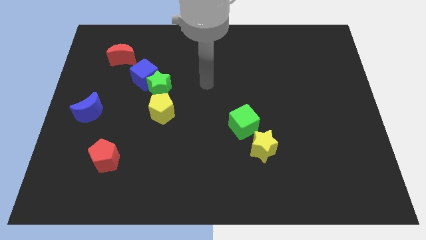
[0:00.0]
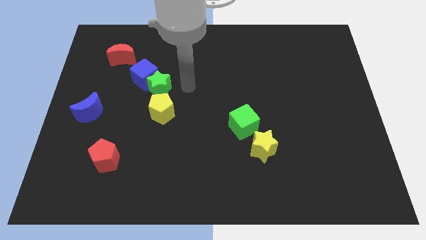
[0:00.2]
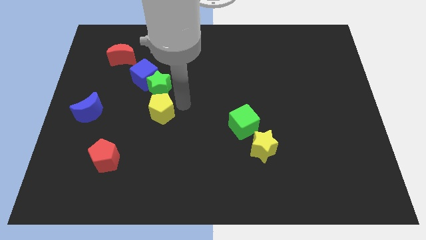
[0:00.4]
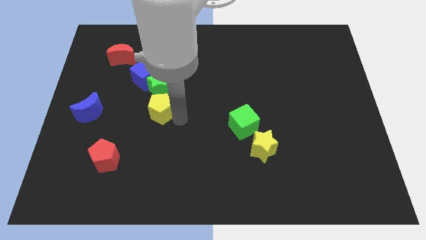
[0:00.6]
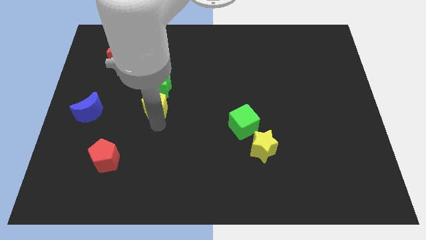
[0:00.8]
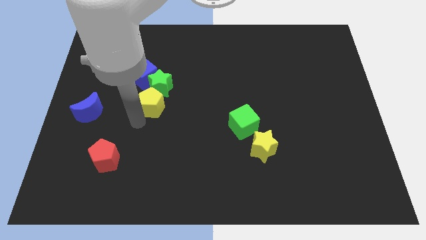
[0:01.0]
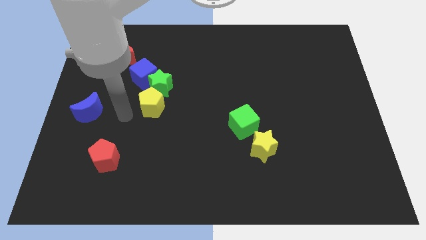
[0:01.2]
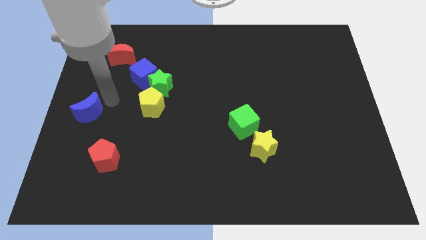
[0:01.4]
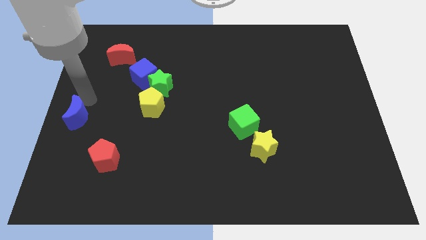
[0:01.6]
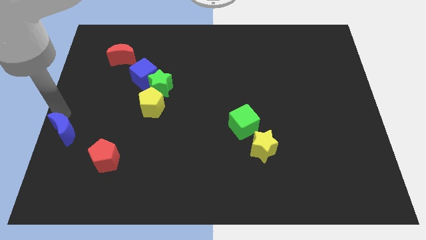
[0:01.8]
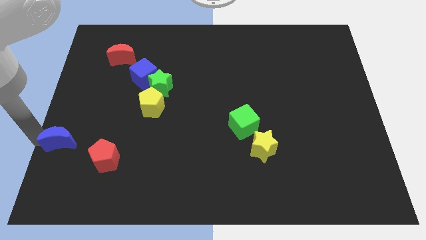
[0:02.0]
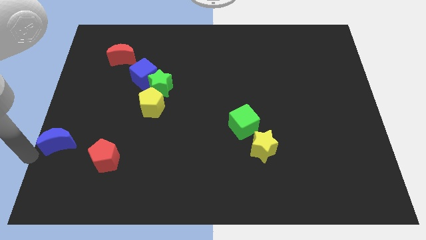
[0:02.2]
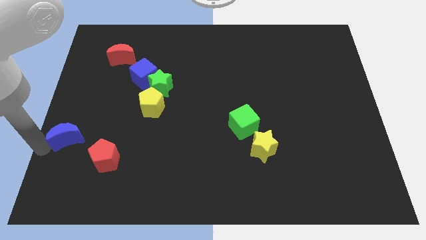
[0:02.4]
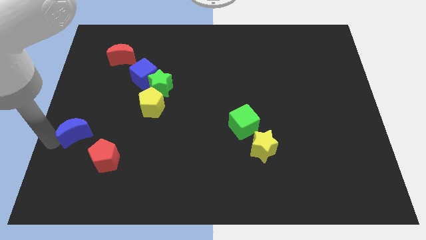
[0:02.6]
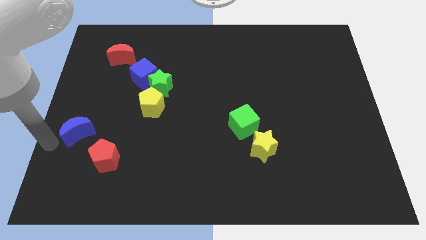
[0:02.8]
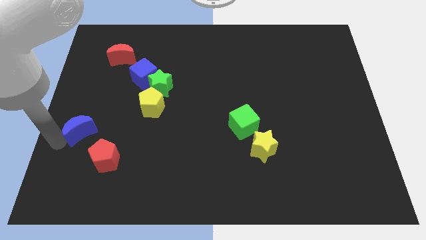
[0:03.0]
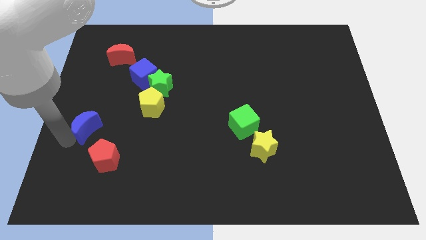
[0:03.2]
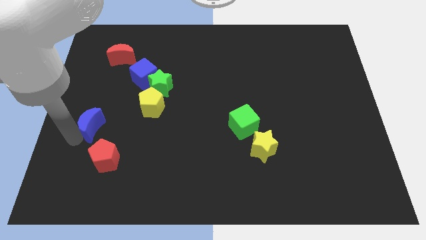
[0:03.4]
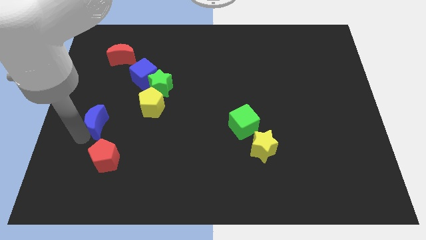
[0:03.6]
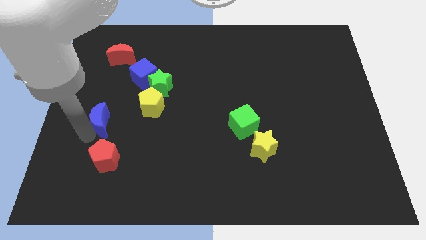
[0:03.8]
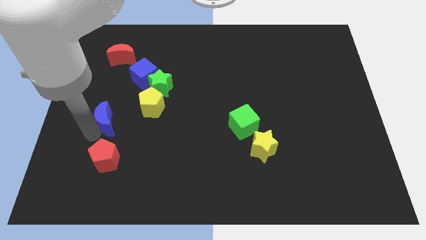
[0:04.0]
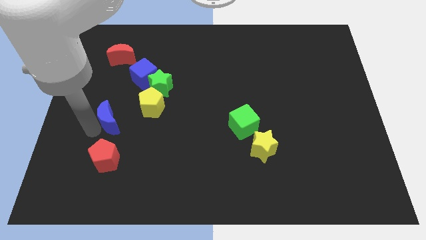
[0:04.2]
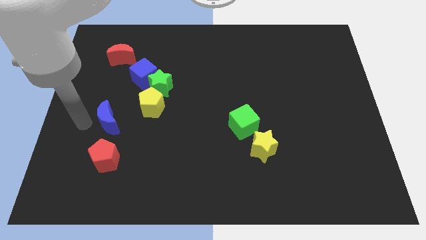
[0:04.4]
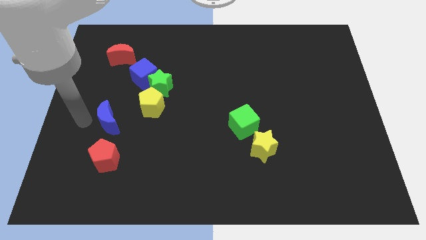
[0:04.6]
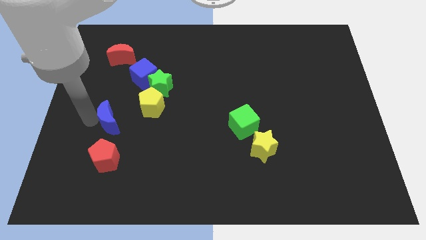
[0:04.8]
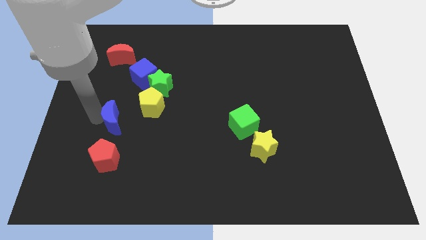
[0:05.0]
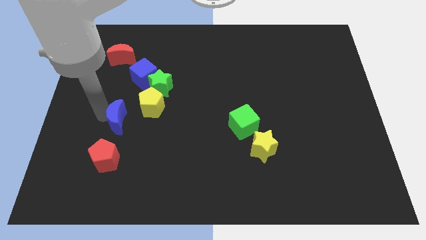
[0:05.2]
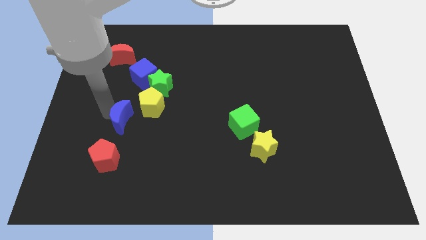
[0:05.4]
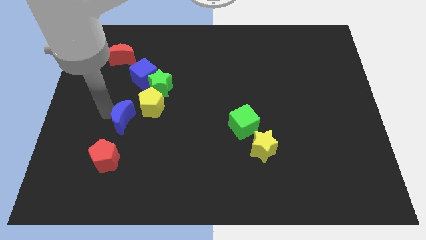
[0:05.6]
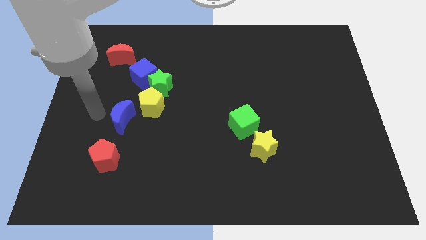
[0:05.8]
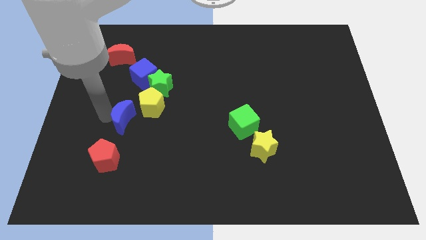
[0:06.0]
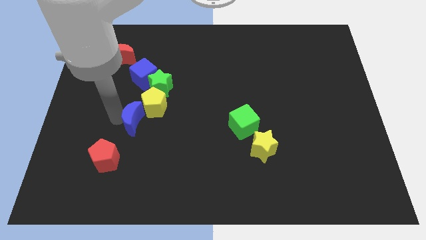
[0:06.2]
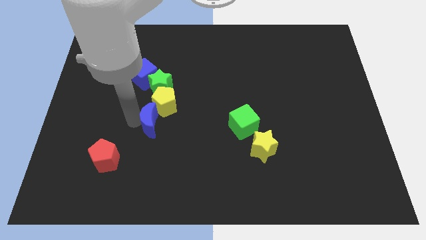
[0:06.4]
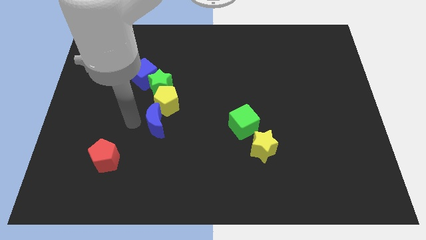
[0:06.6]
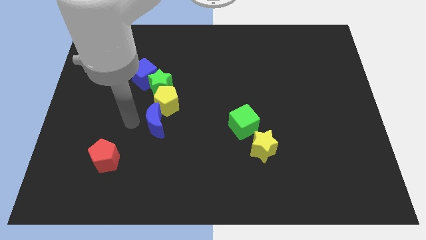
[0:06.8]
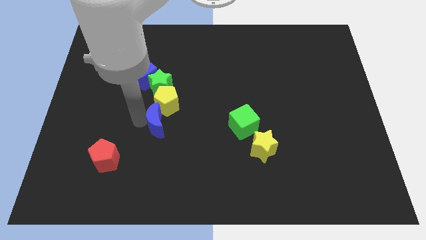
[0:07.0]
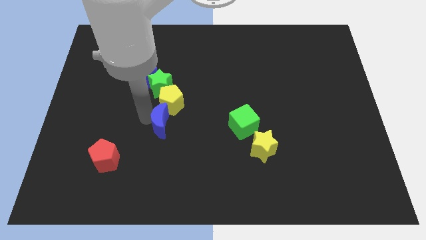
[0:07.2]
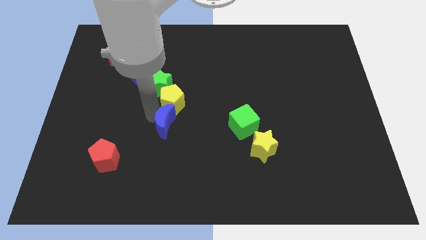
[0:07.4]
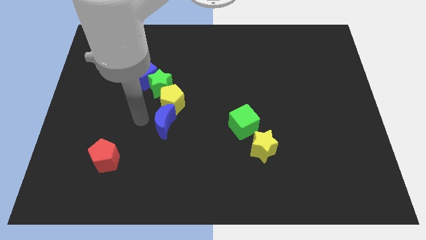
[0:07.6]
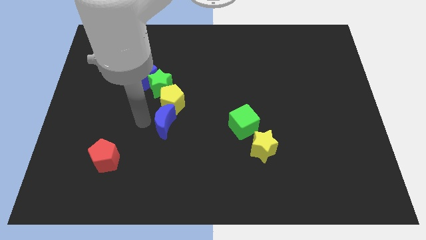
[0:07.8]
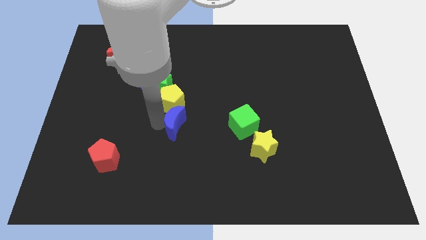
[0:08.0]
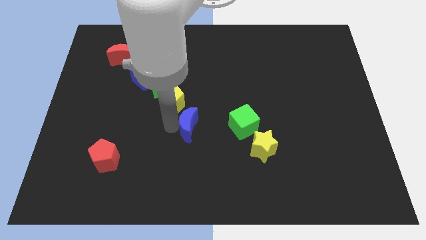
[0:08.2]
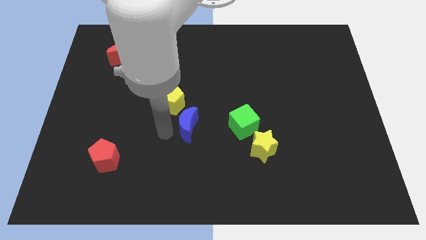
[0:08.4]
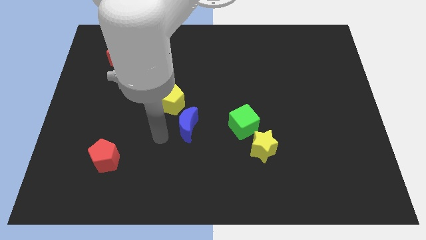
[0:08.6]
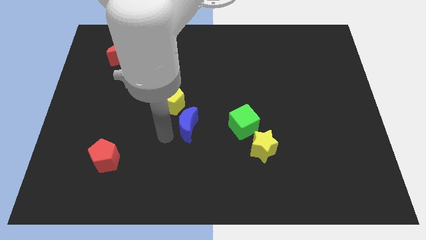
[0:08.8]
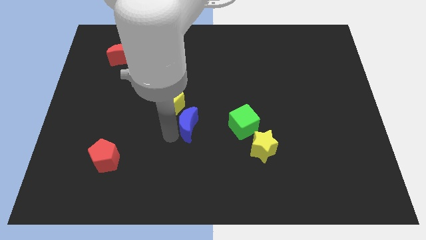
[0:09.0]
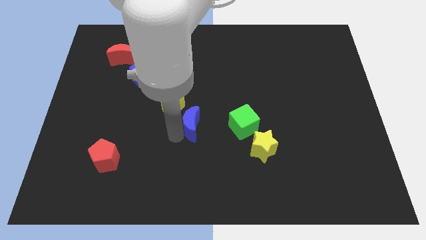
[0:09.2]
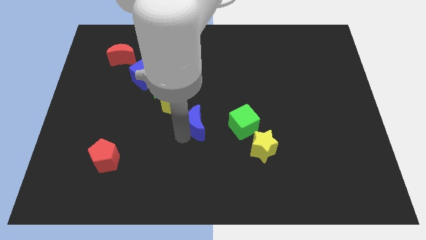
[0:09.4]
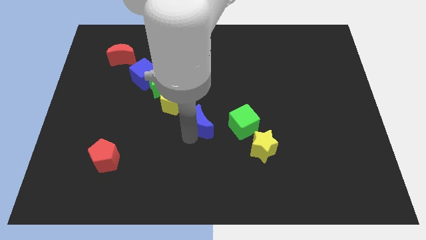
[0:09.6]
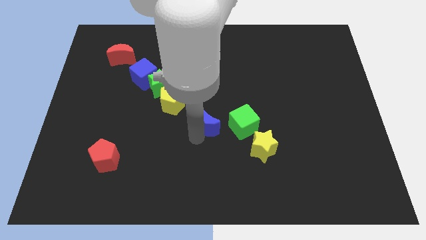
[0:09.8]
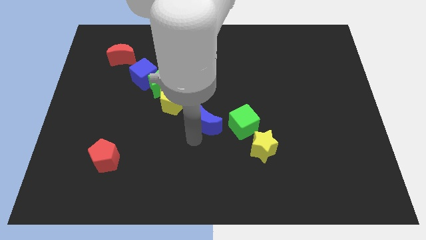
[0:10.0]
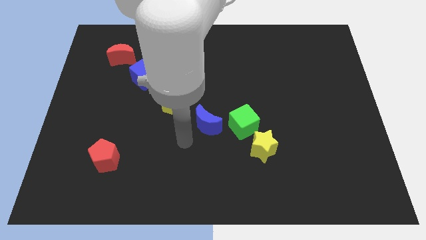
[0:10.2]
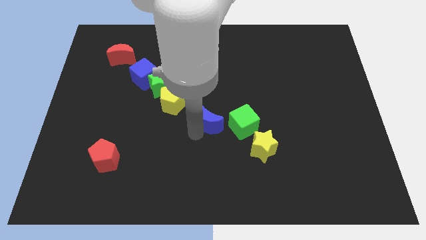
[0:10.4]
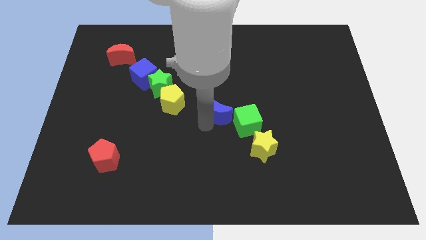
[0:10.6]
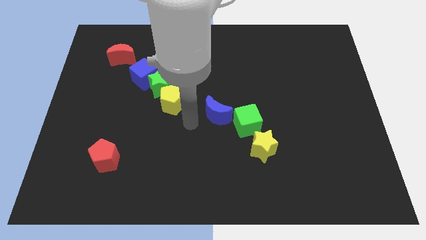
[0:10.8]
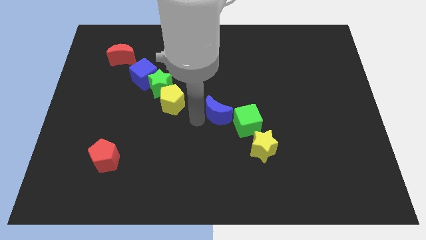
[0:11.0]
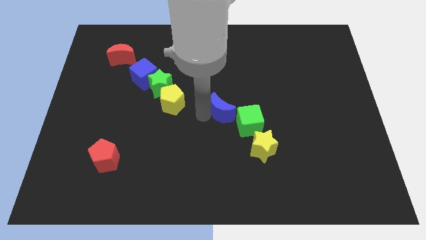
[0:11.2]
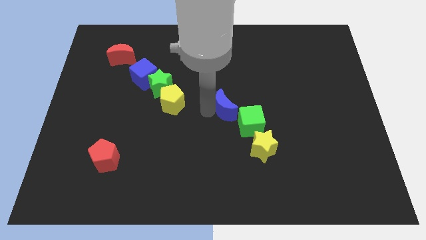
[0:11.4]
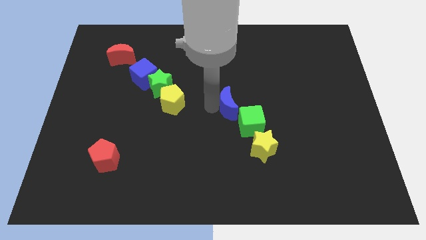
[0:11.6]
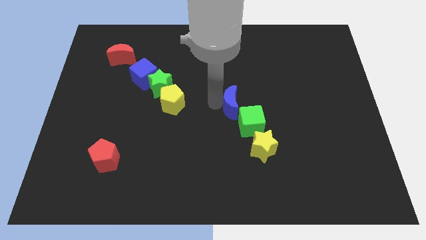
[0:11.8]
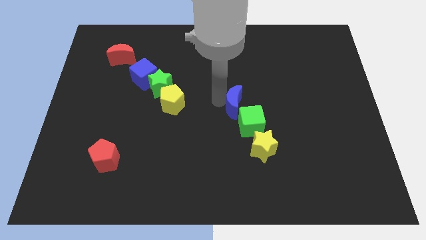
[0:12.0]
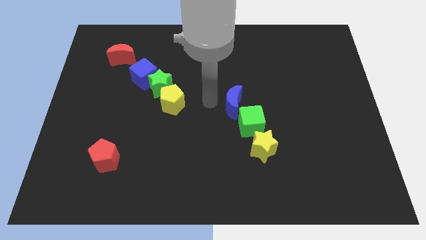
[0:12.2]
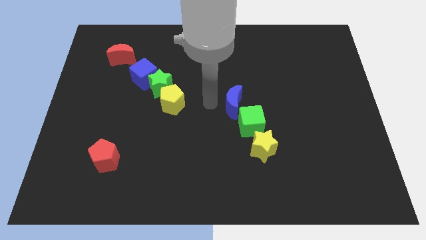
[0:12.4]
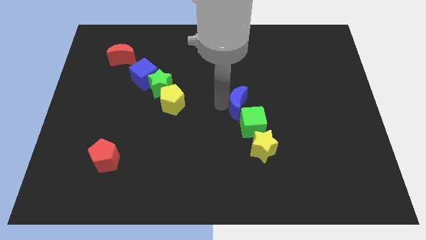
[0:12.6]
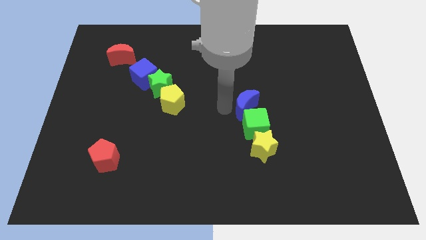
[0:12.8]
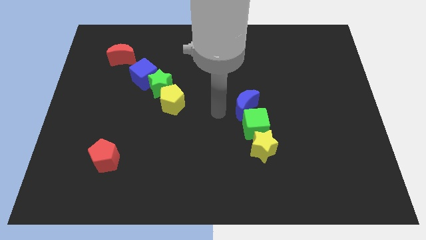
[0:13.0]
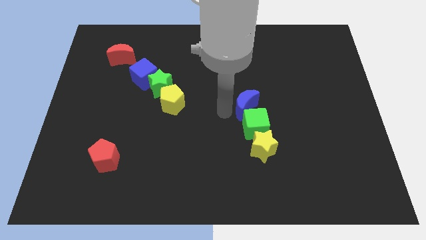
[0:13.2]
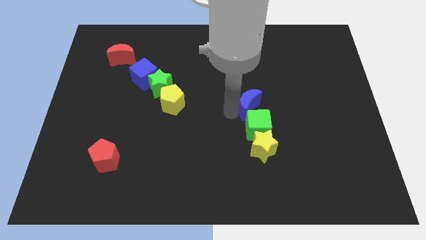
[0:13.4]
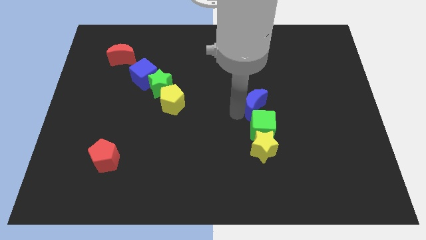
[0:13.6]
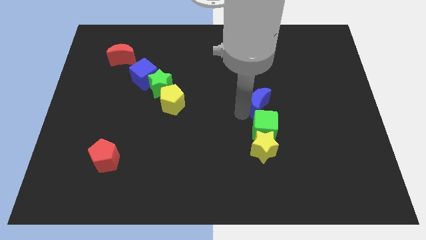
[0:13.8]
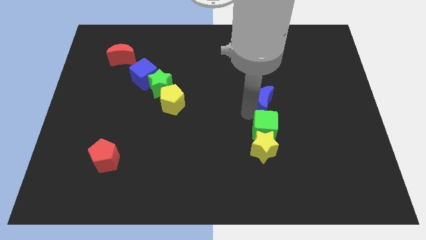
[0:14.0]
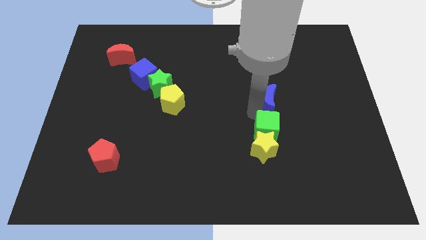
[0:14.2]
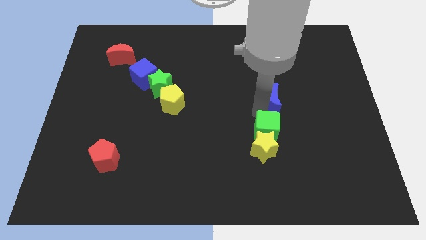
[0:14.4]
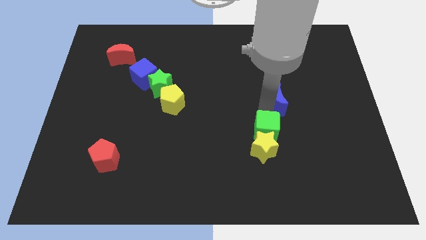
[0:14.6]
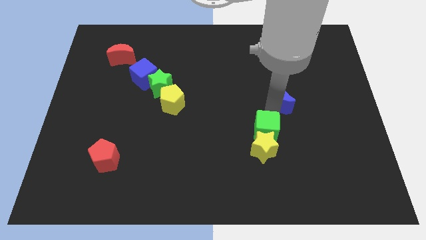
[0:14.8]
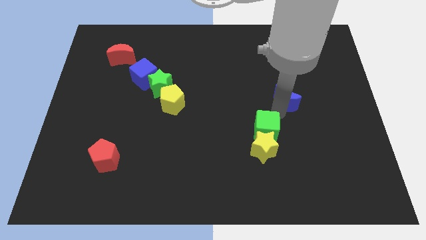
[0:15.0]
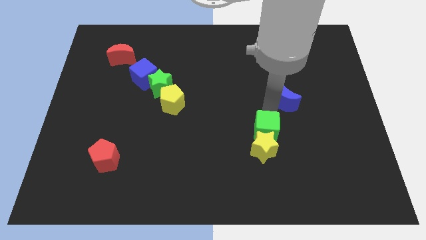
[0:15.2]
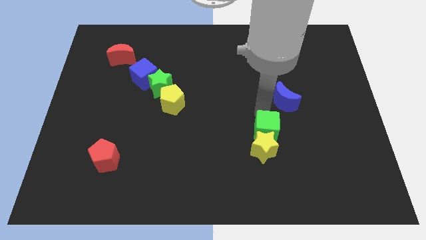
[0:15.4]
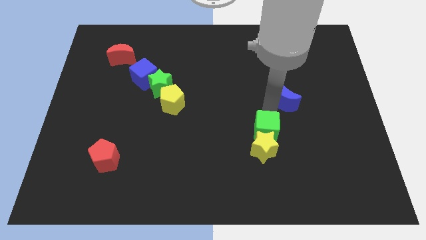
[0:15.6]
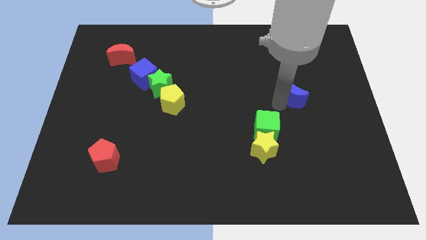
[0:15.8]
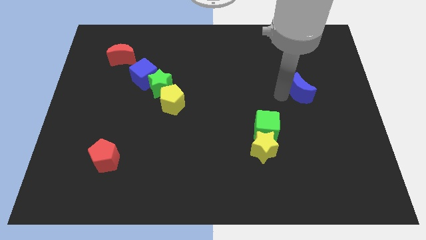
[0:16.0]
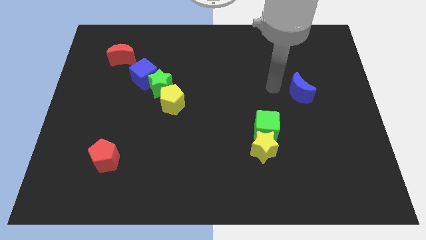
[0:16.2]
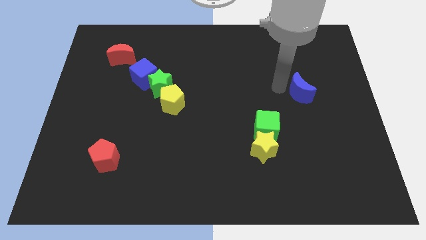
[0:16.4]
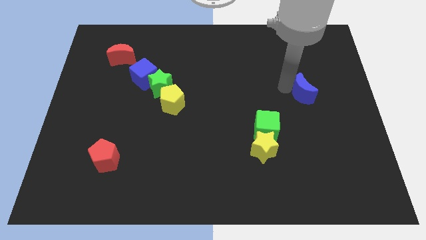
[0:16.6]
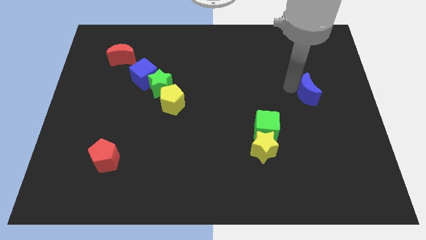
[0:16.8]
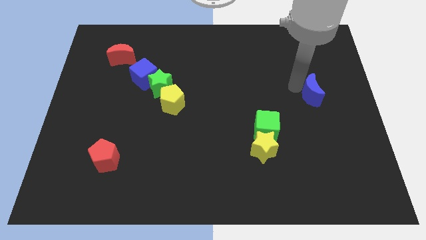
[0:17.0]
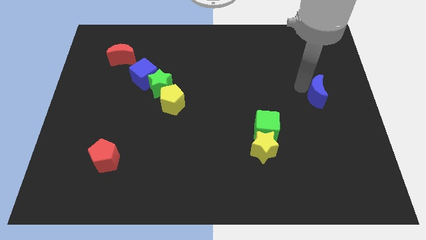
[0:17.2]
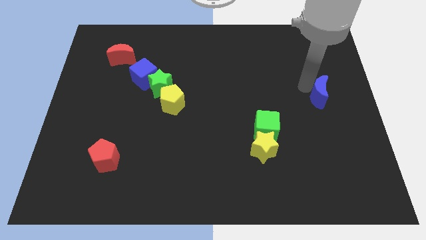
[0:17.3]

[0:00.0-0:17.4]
push the blue moon to the center right
